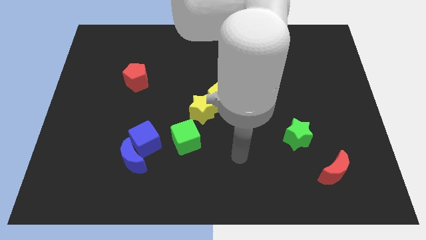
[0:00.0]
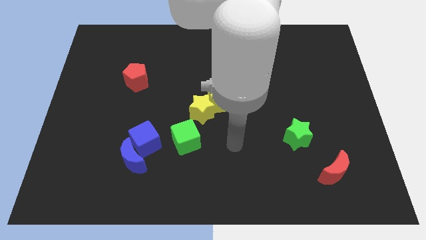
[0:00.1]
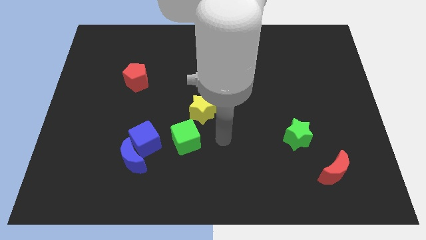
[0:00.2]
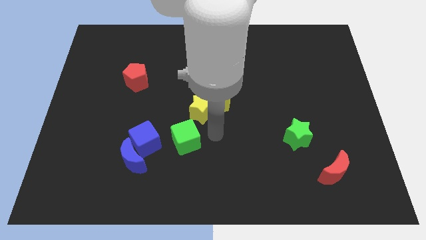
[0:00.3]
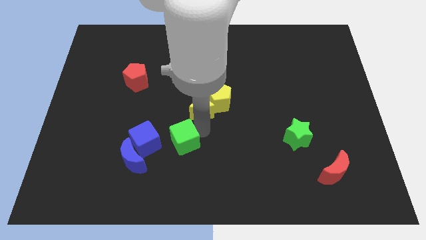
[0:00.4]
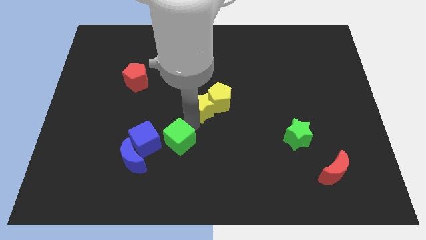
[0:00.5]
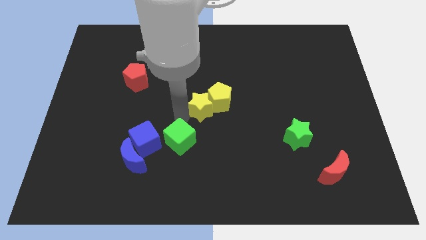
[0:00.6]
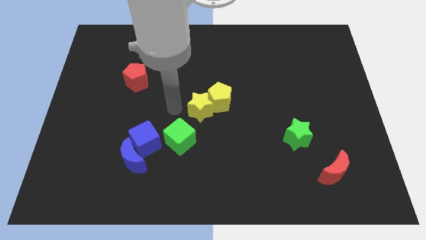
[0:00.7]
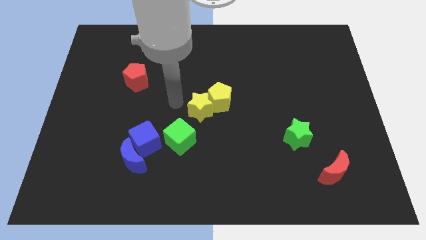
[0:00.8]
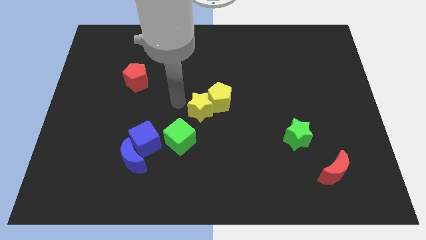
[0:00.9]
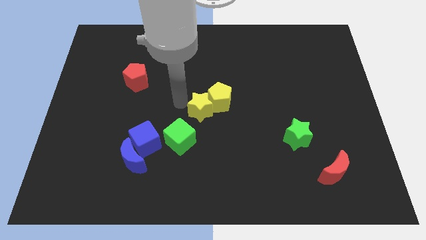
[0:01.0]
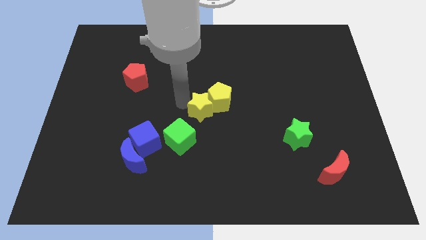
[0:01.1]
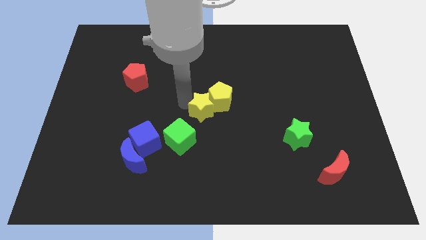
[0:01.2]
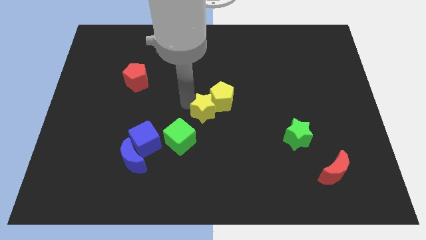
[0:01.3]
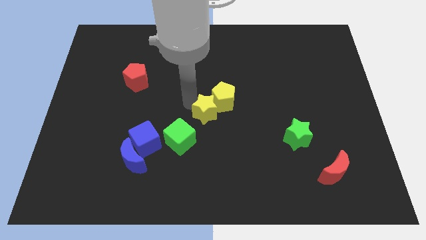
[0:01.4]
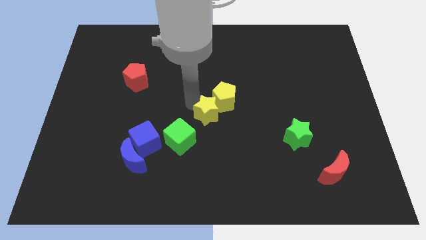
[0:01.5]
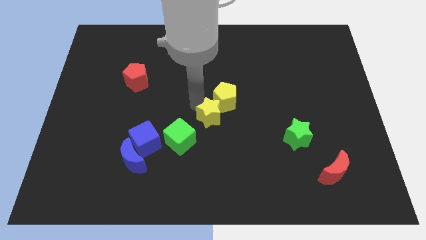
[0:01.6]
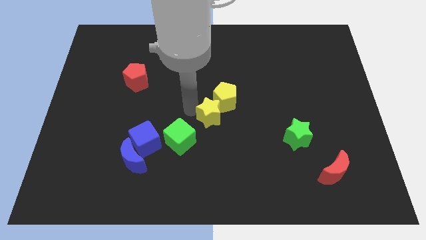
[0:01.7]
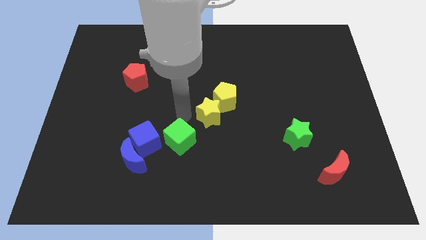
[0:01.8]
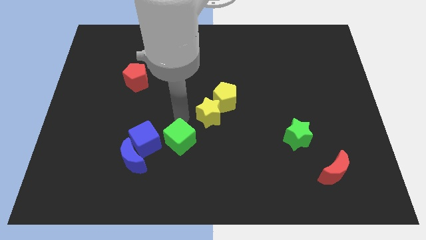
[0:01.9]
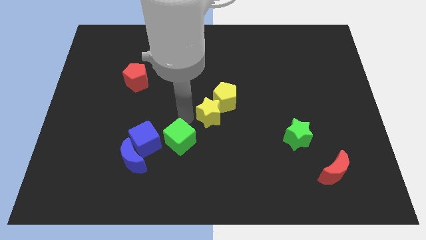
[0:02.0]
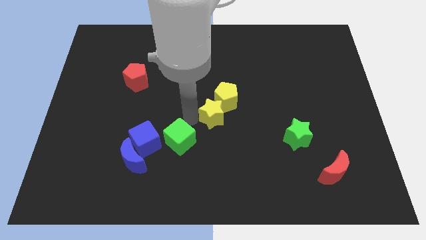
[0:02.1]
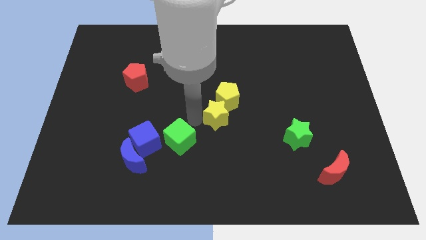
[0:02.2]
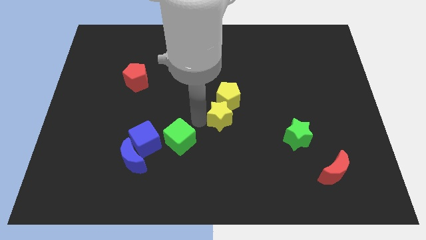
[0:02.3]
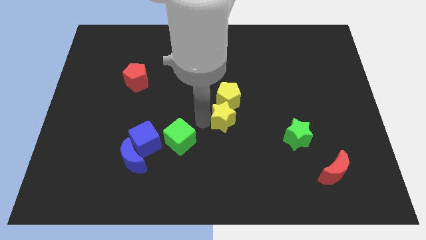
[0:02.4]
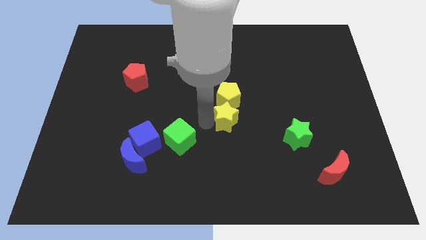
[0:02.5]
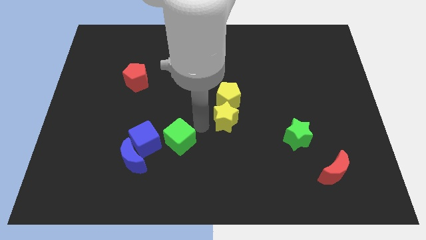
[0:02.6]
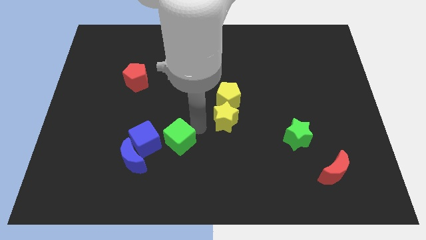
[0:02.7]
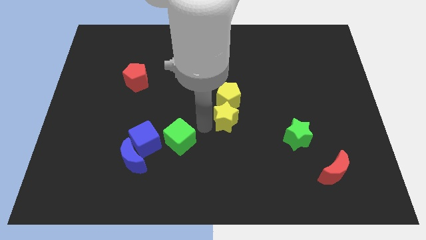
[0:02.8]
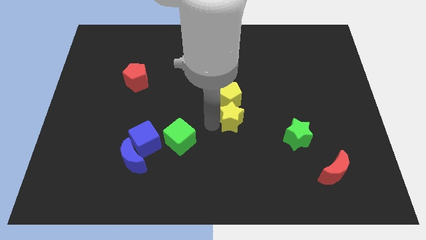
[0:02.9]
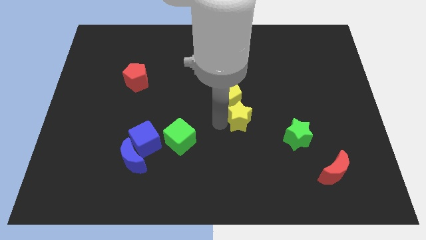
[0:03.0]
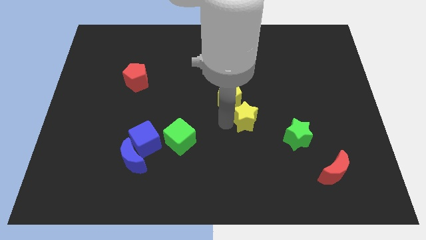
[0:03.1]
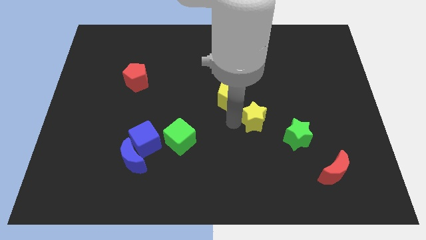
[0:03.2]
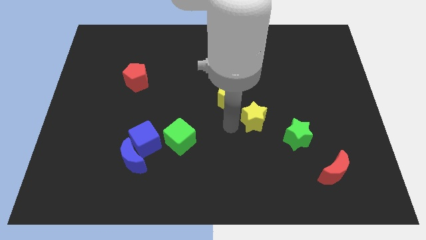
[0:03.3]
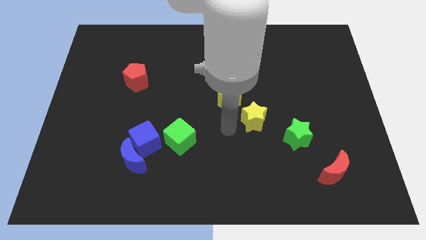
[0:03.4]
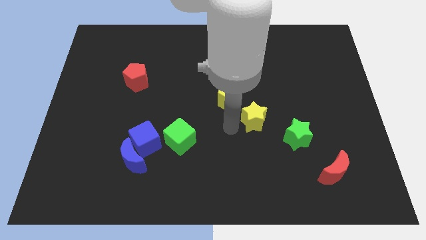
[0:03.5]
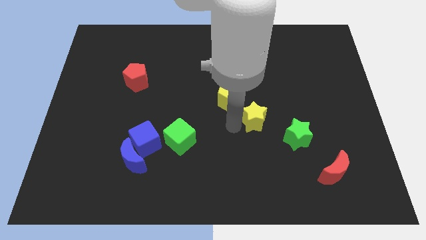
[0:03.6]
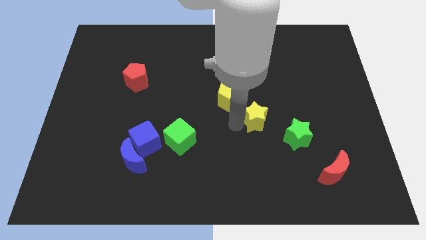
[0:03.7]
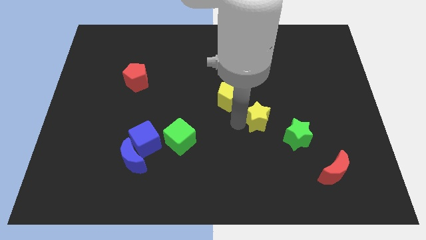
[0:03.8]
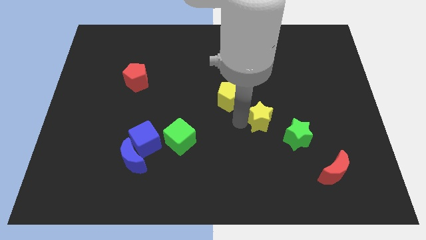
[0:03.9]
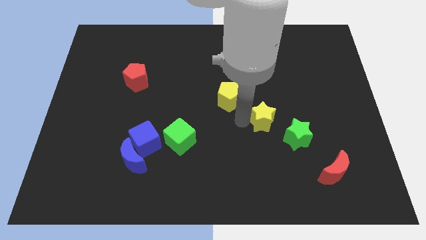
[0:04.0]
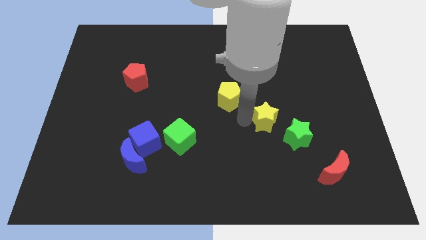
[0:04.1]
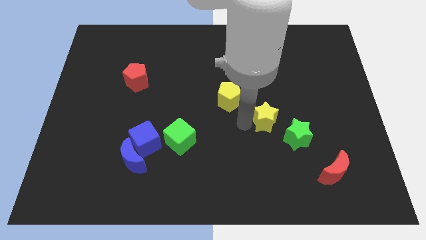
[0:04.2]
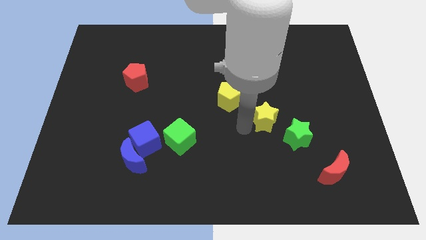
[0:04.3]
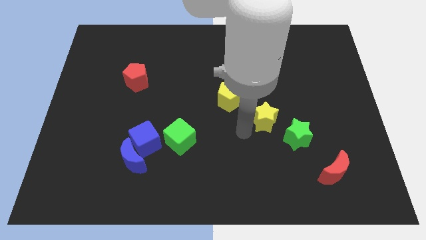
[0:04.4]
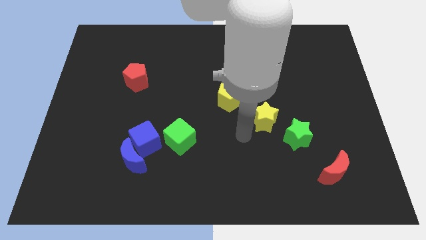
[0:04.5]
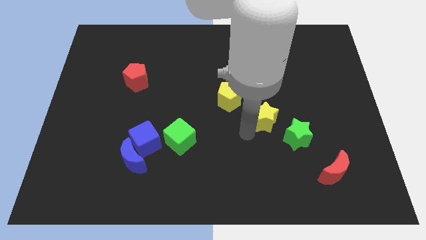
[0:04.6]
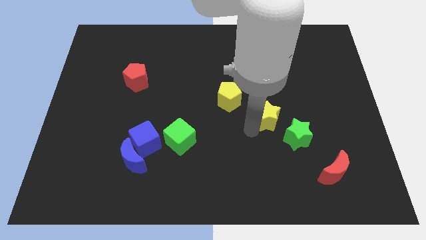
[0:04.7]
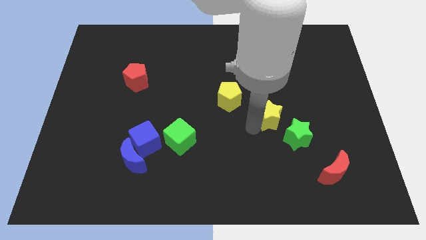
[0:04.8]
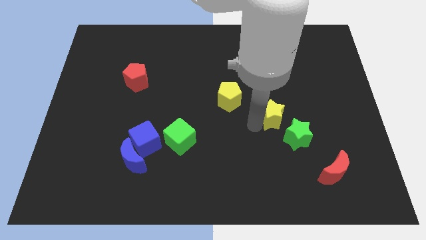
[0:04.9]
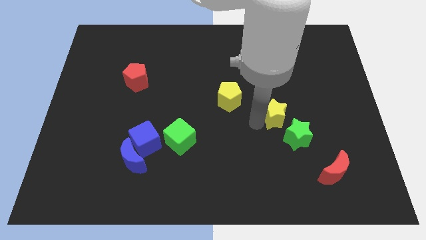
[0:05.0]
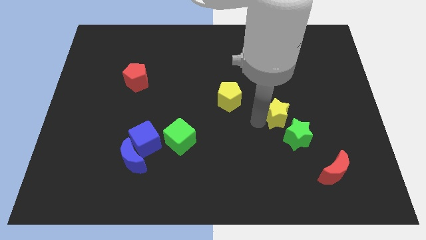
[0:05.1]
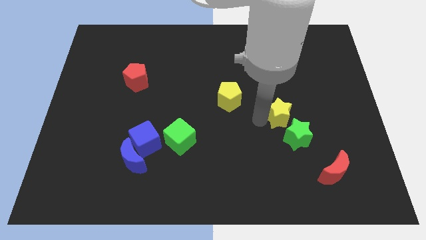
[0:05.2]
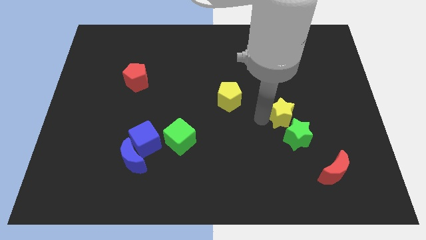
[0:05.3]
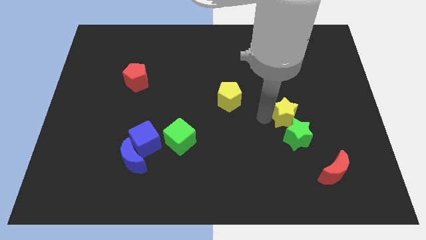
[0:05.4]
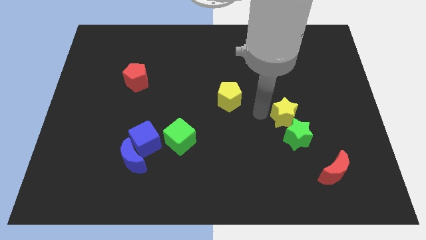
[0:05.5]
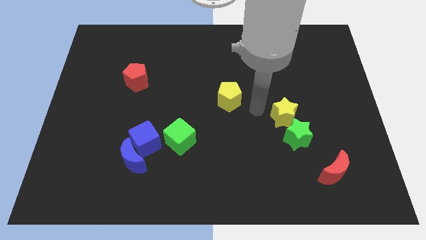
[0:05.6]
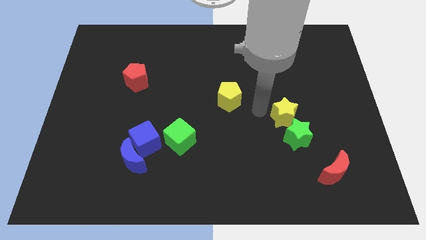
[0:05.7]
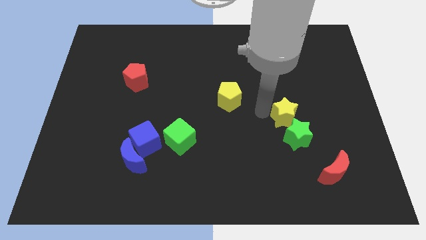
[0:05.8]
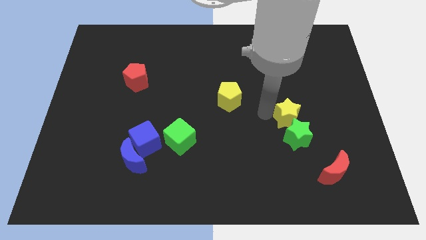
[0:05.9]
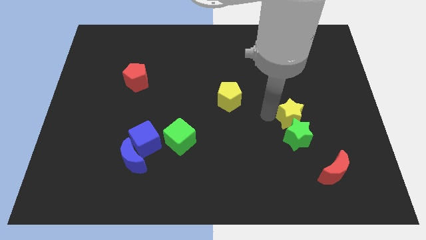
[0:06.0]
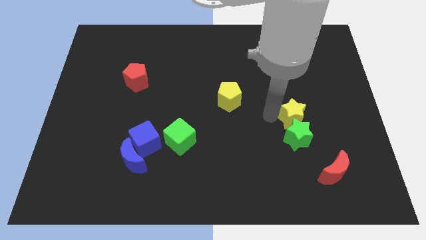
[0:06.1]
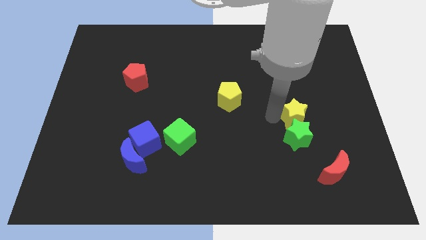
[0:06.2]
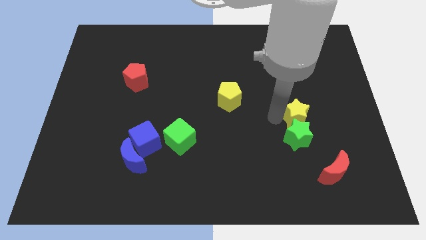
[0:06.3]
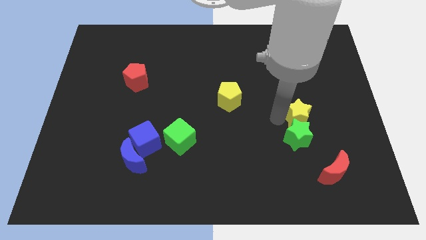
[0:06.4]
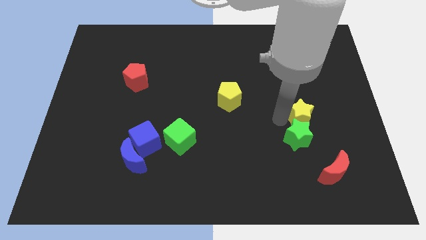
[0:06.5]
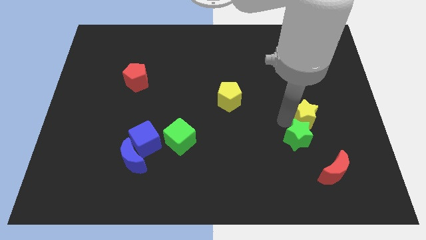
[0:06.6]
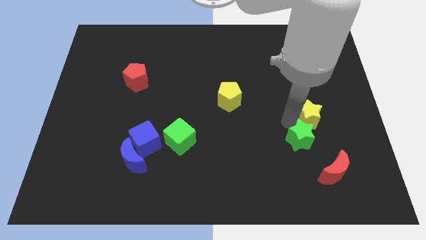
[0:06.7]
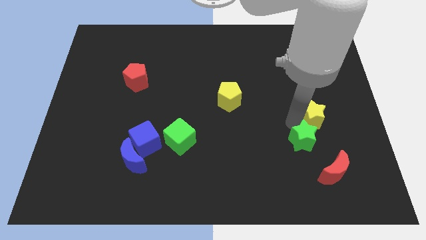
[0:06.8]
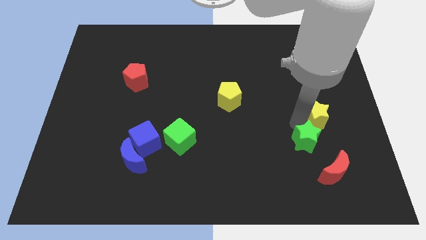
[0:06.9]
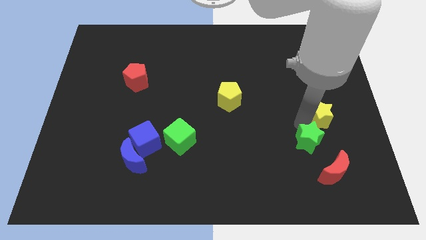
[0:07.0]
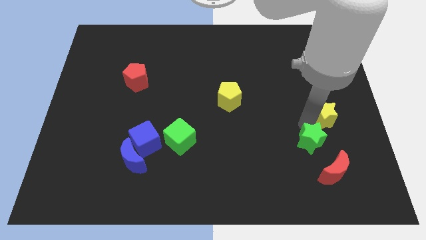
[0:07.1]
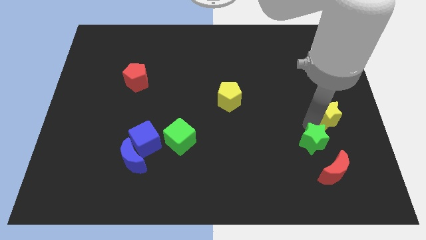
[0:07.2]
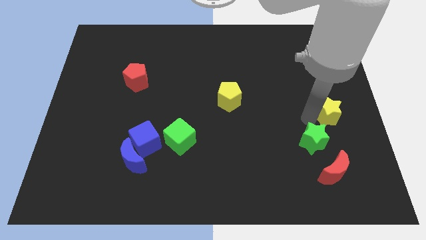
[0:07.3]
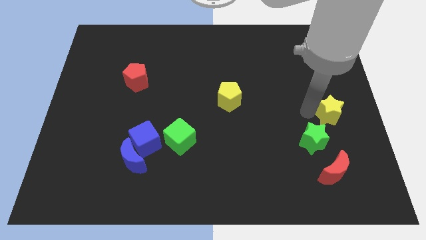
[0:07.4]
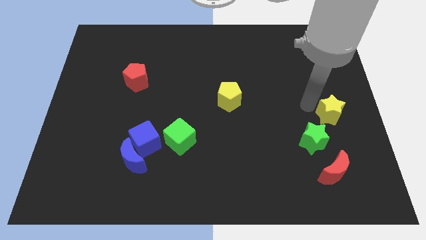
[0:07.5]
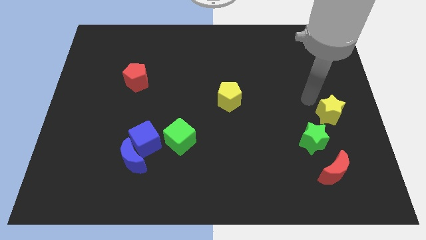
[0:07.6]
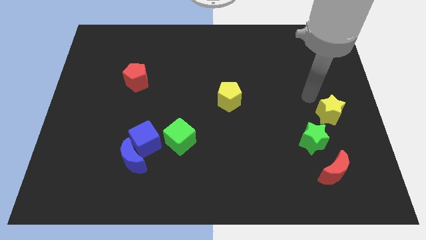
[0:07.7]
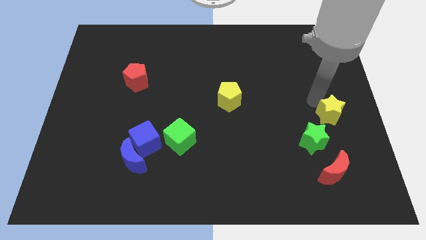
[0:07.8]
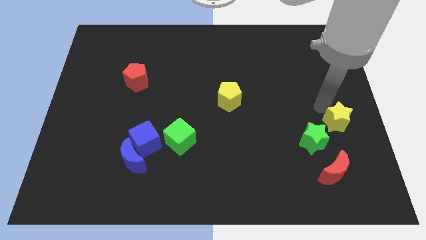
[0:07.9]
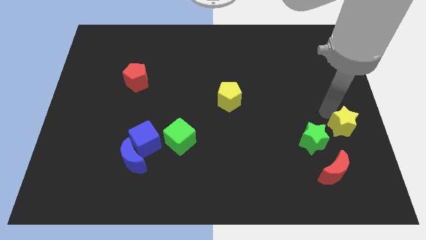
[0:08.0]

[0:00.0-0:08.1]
move the yellow star to the right of the green star
